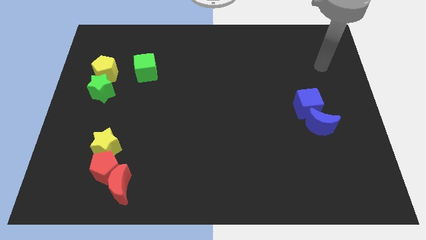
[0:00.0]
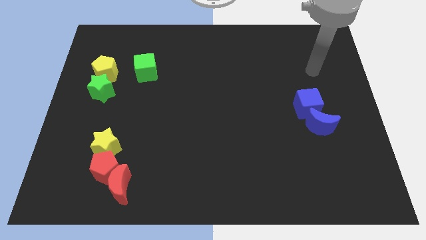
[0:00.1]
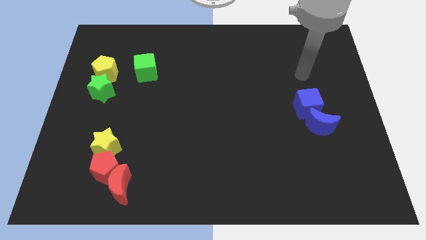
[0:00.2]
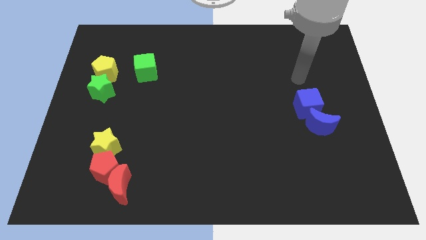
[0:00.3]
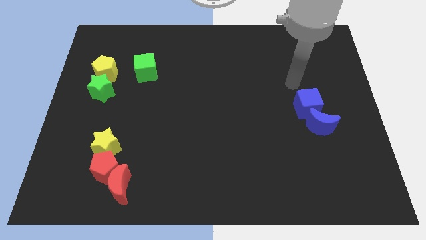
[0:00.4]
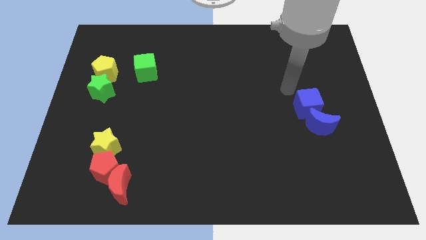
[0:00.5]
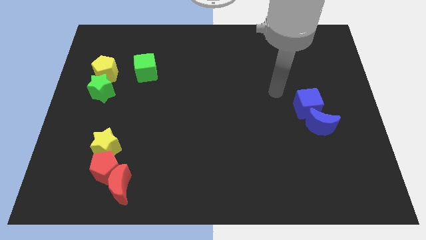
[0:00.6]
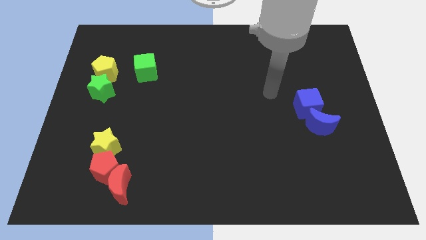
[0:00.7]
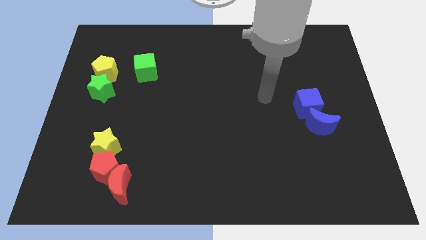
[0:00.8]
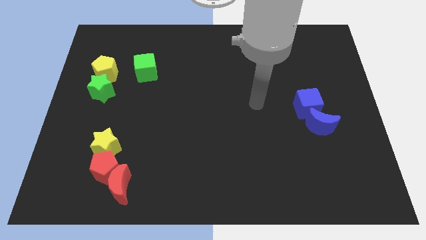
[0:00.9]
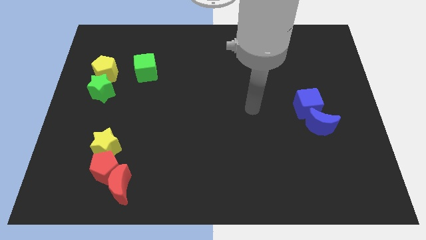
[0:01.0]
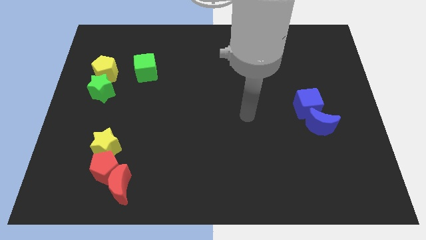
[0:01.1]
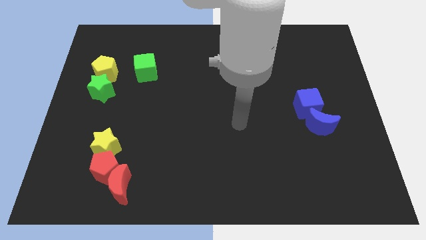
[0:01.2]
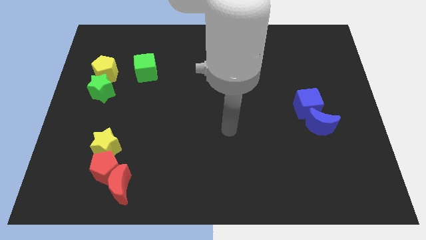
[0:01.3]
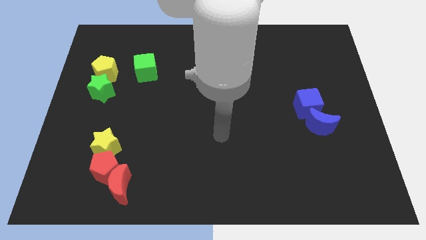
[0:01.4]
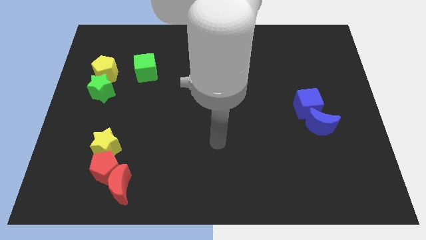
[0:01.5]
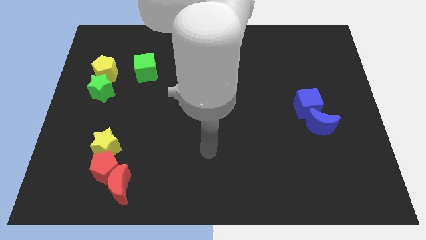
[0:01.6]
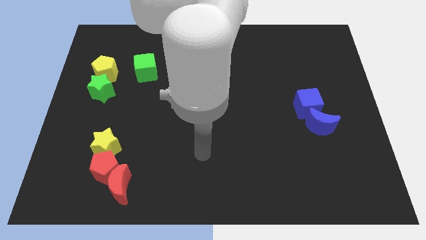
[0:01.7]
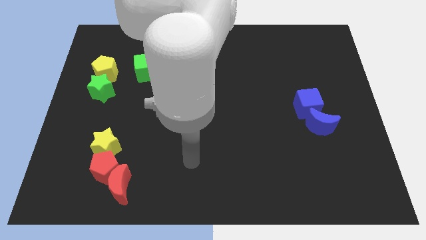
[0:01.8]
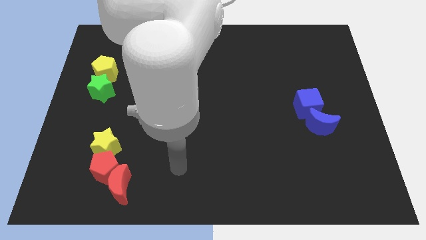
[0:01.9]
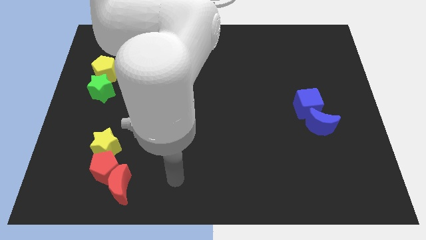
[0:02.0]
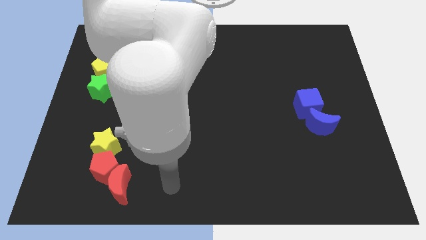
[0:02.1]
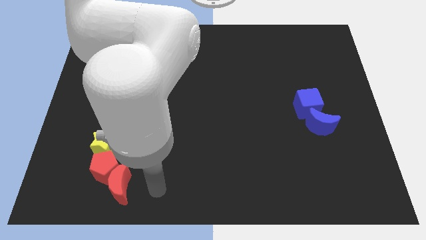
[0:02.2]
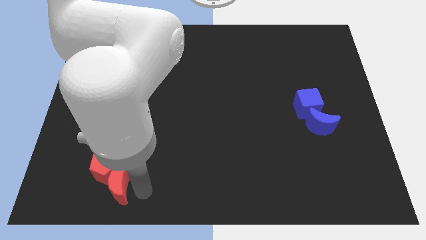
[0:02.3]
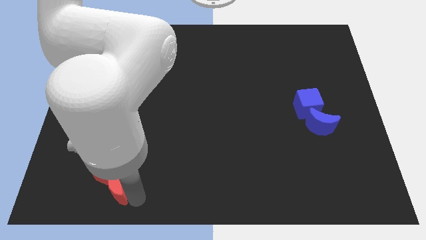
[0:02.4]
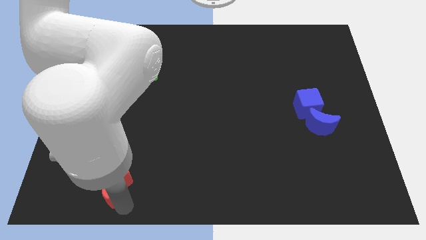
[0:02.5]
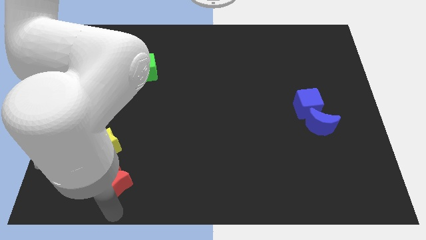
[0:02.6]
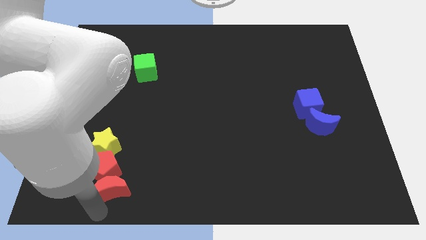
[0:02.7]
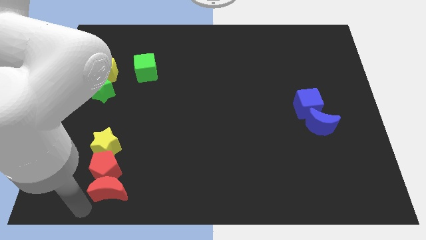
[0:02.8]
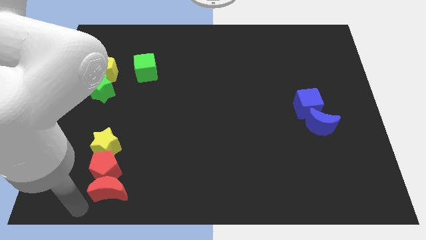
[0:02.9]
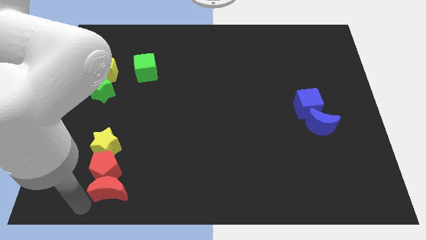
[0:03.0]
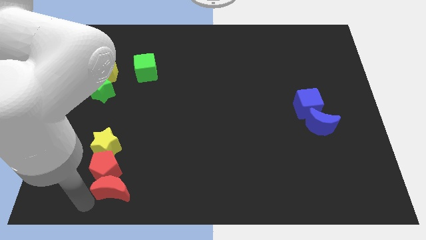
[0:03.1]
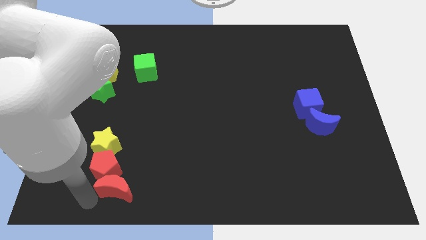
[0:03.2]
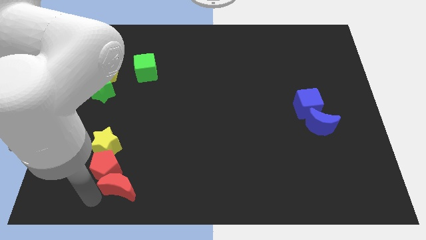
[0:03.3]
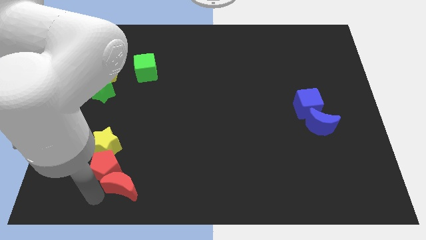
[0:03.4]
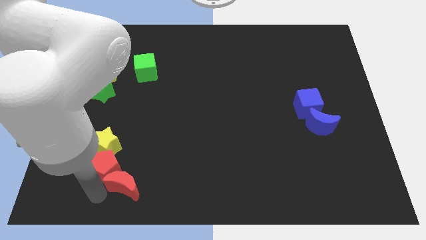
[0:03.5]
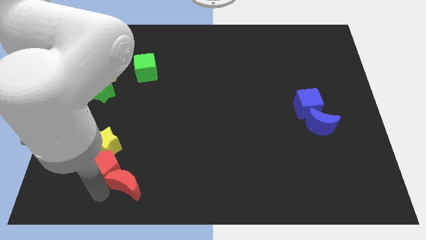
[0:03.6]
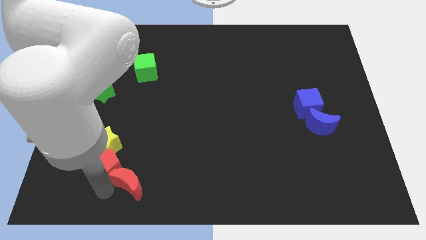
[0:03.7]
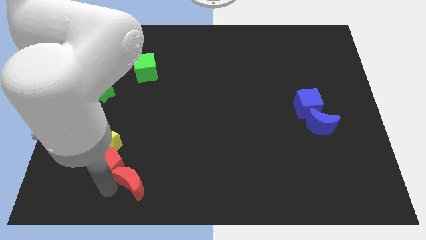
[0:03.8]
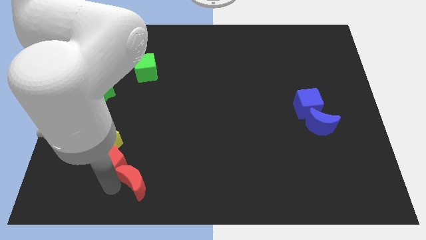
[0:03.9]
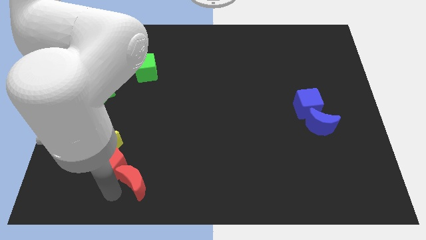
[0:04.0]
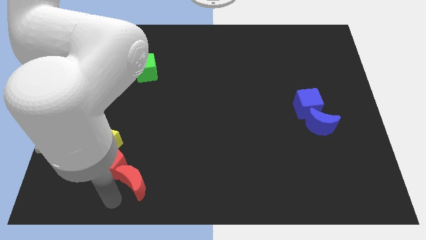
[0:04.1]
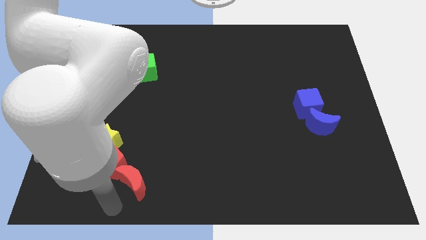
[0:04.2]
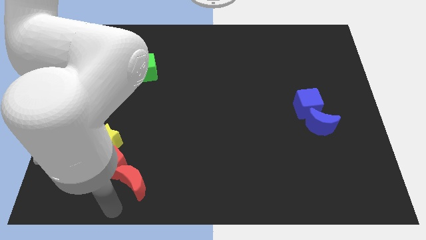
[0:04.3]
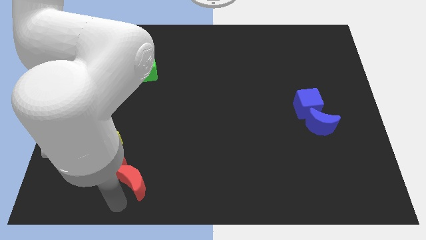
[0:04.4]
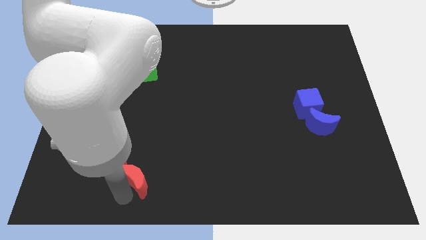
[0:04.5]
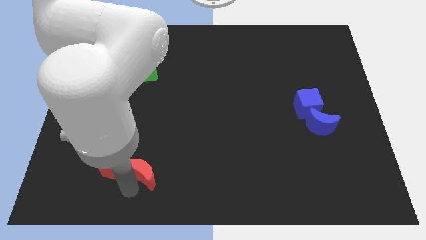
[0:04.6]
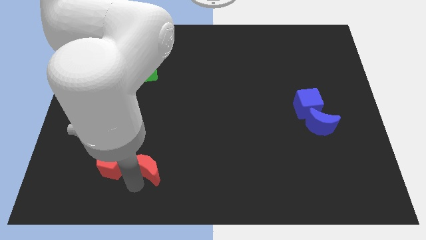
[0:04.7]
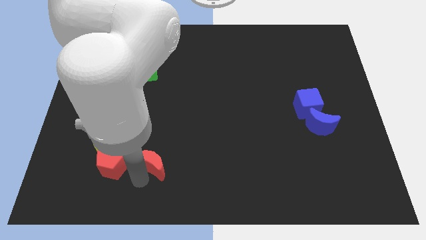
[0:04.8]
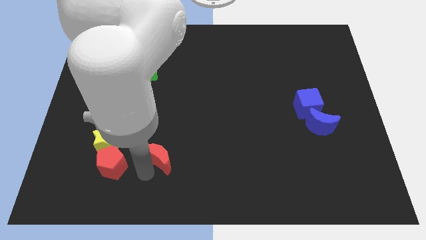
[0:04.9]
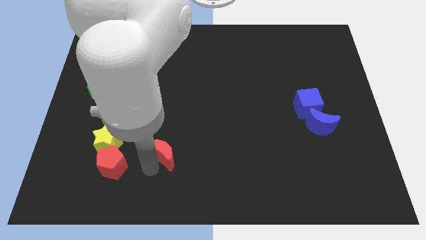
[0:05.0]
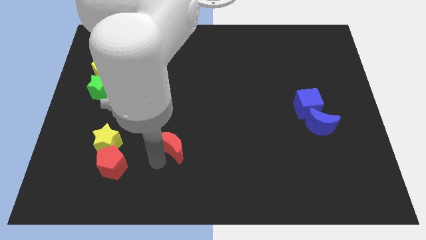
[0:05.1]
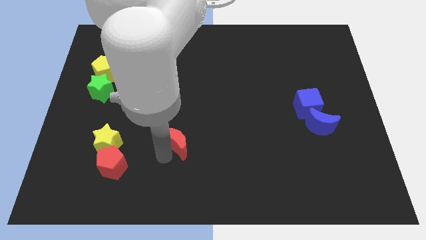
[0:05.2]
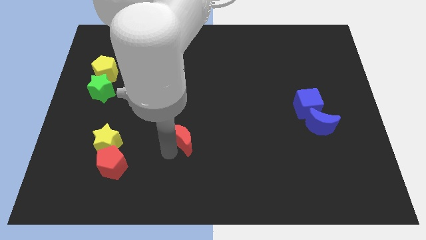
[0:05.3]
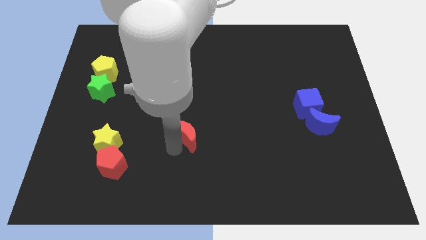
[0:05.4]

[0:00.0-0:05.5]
move the red moon to the middle of the board

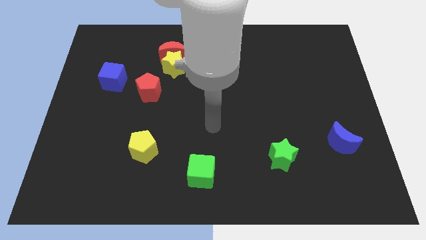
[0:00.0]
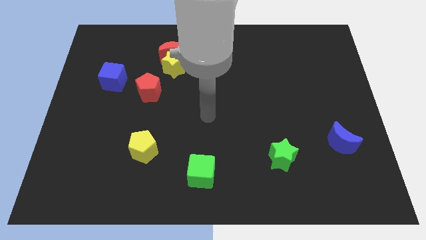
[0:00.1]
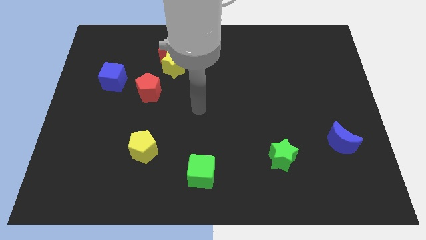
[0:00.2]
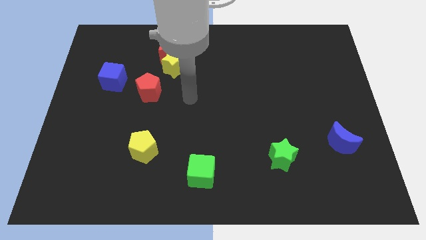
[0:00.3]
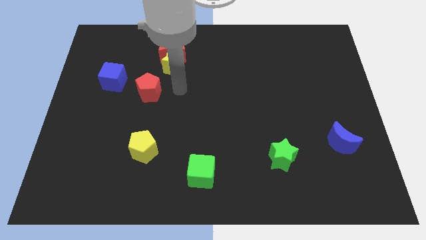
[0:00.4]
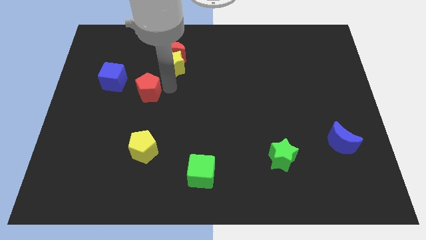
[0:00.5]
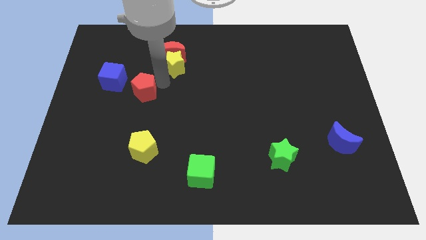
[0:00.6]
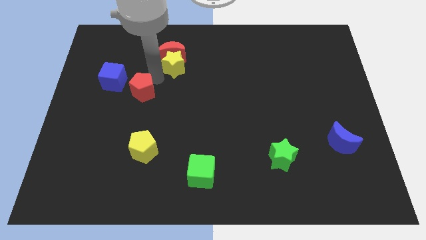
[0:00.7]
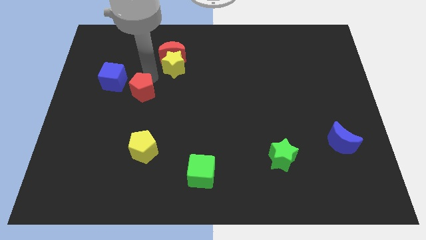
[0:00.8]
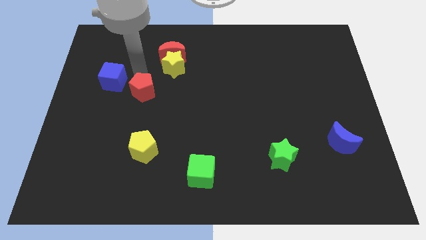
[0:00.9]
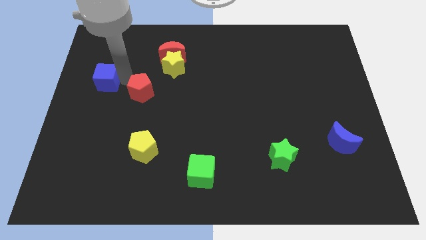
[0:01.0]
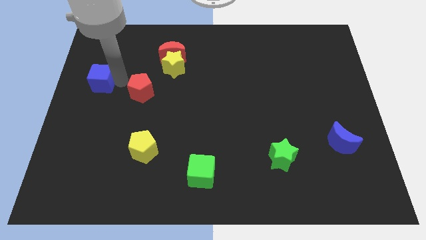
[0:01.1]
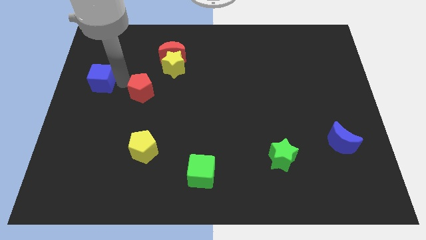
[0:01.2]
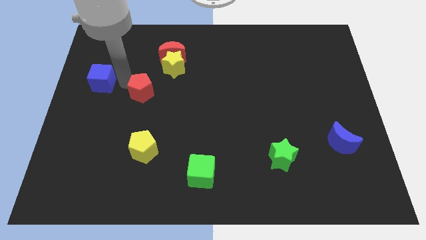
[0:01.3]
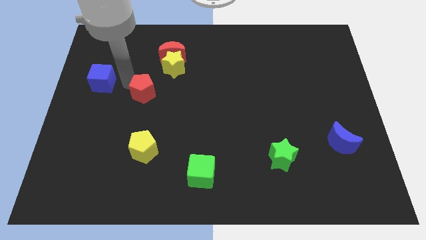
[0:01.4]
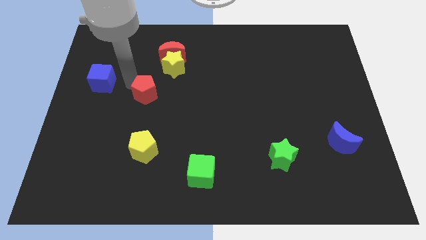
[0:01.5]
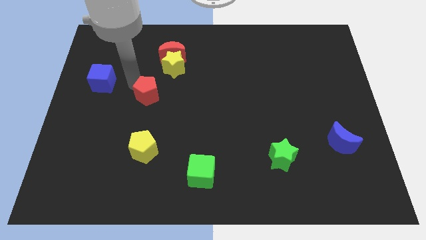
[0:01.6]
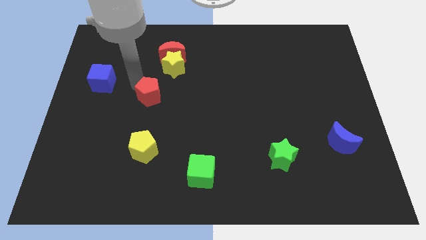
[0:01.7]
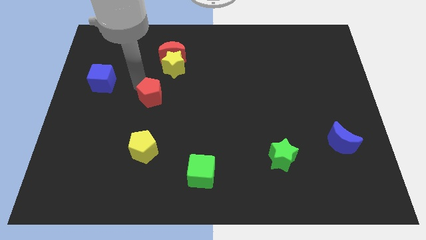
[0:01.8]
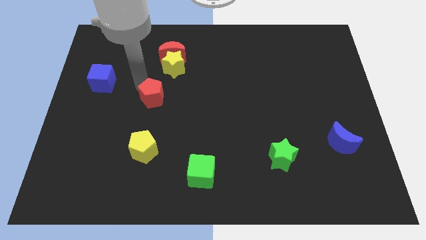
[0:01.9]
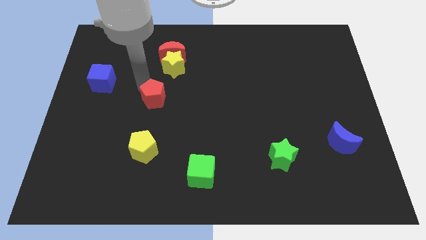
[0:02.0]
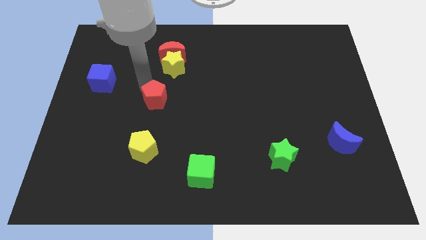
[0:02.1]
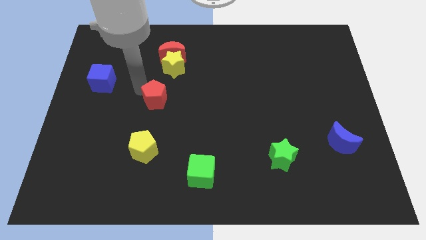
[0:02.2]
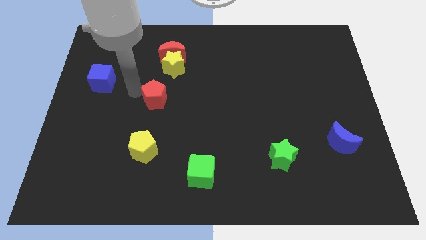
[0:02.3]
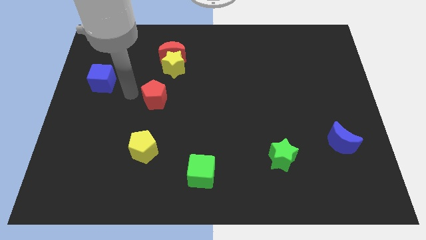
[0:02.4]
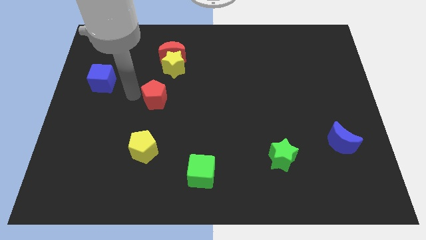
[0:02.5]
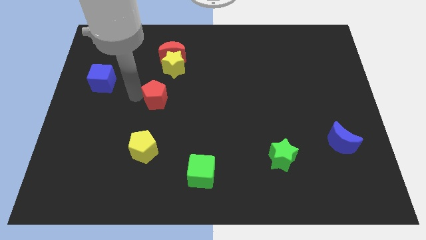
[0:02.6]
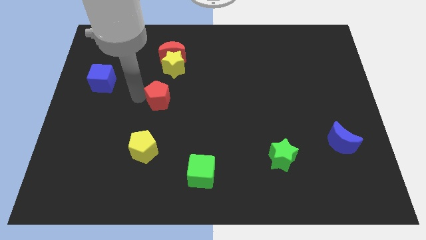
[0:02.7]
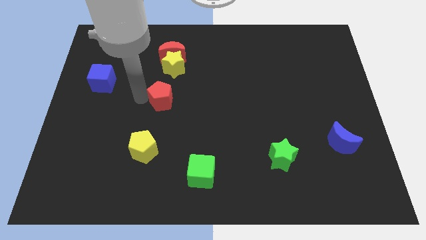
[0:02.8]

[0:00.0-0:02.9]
move the red pentagon to the center
